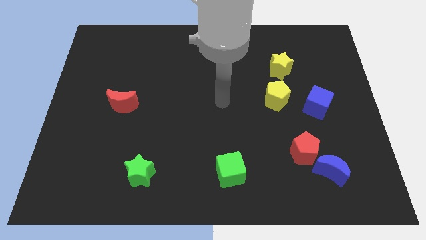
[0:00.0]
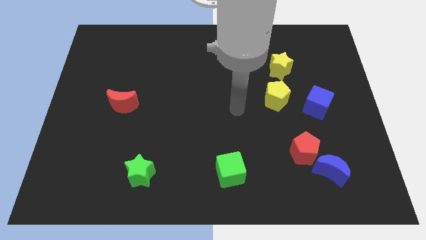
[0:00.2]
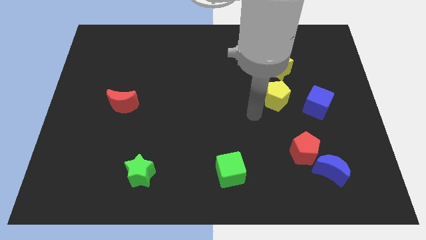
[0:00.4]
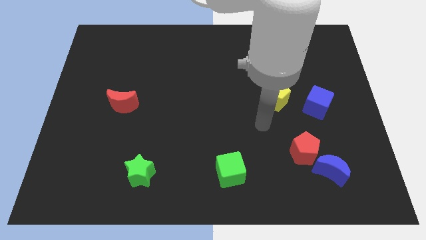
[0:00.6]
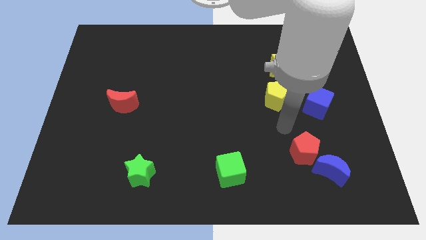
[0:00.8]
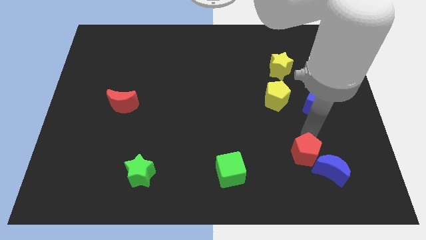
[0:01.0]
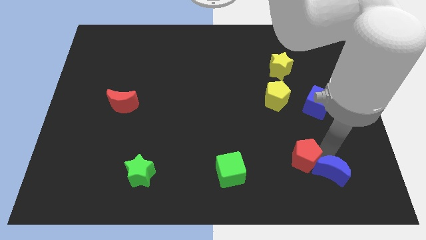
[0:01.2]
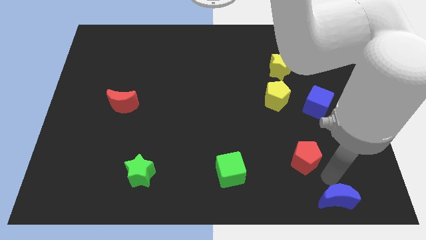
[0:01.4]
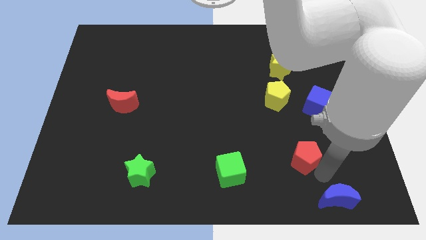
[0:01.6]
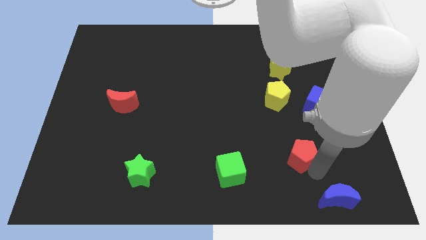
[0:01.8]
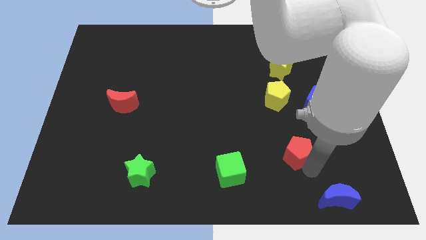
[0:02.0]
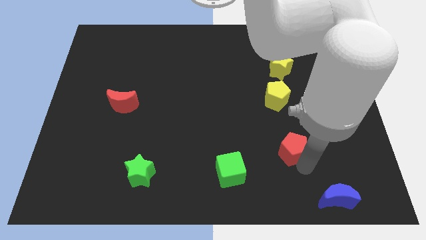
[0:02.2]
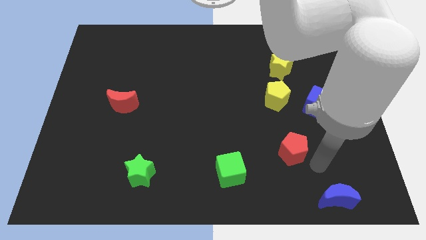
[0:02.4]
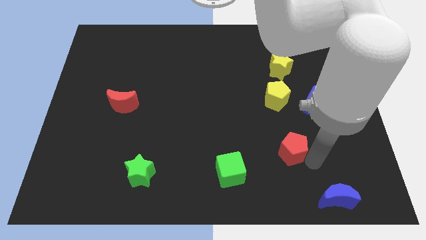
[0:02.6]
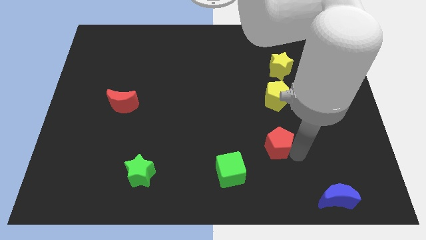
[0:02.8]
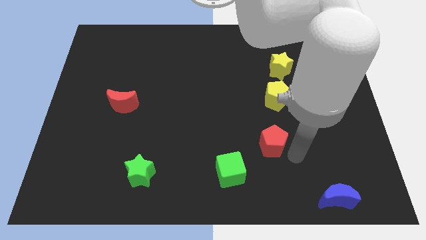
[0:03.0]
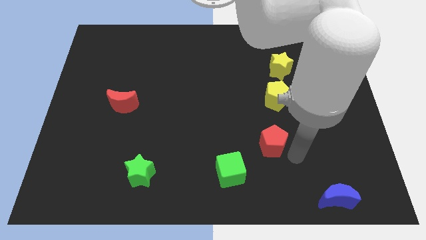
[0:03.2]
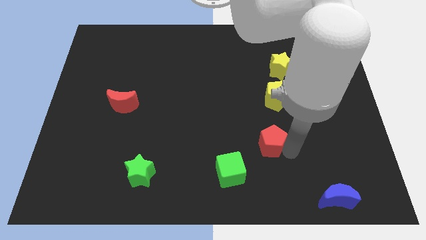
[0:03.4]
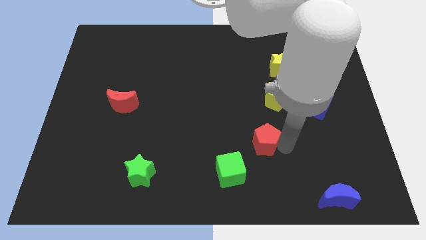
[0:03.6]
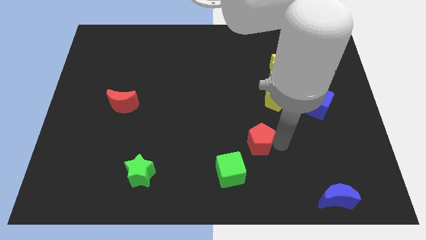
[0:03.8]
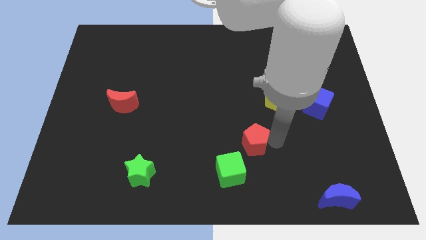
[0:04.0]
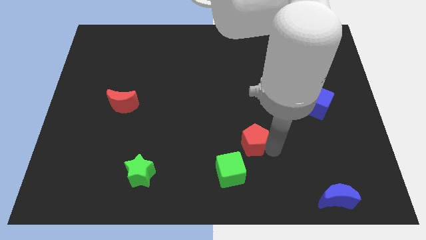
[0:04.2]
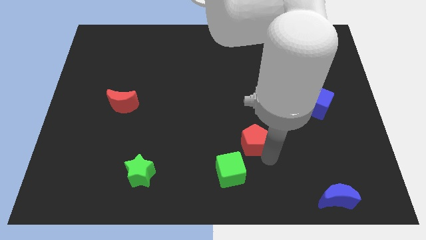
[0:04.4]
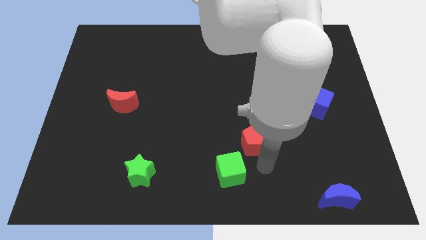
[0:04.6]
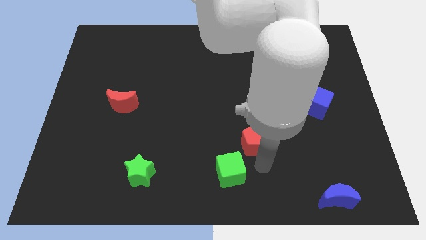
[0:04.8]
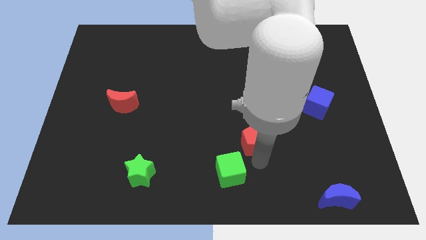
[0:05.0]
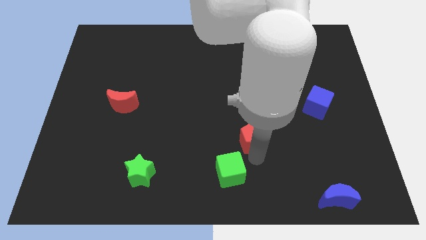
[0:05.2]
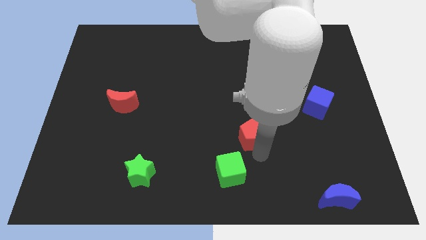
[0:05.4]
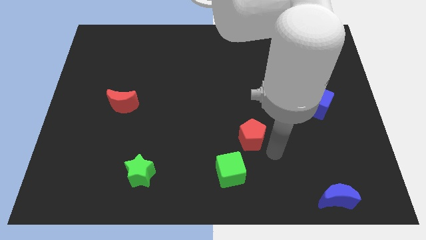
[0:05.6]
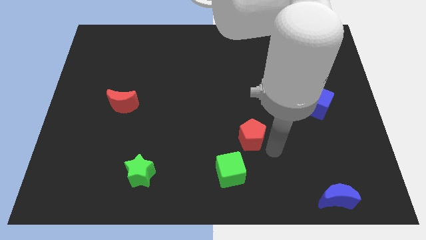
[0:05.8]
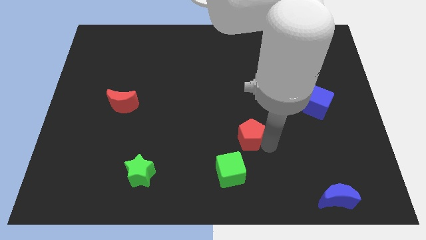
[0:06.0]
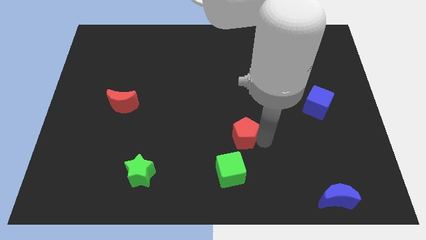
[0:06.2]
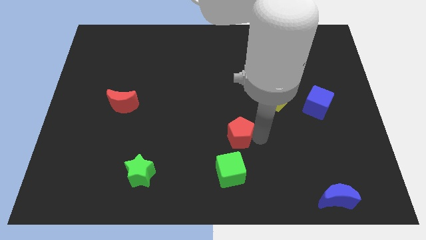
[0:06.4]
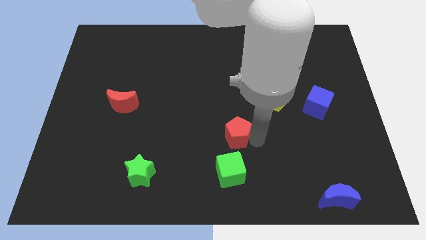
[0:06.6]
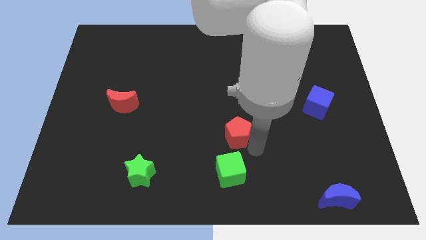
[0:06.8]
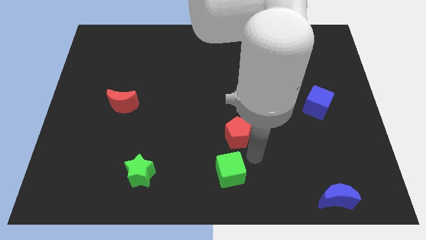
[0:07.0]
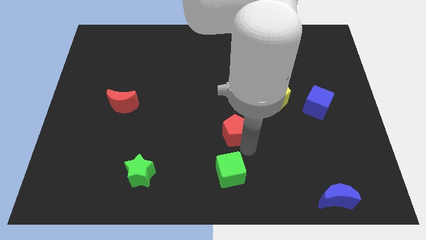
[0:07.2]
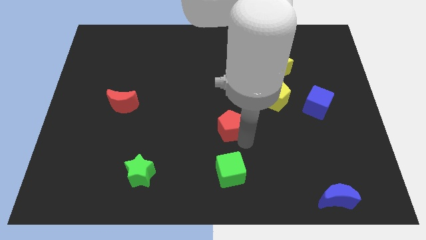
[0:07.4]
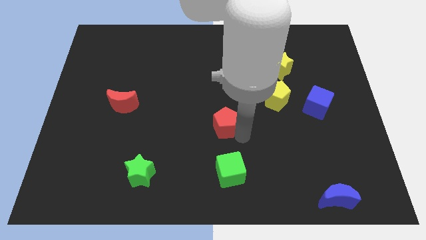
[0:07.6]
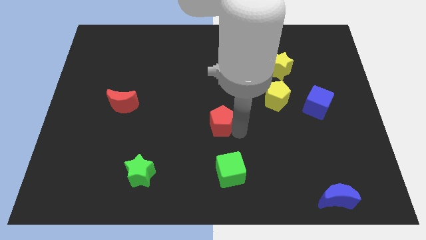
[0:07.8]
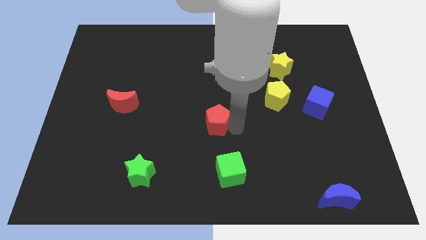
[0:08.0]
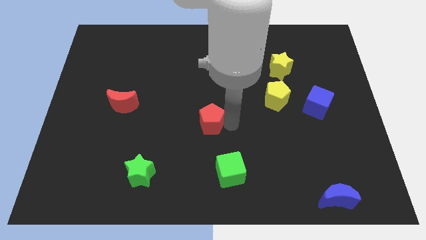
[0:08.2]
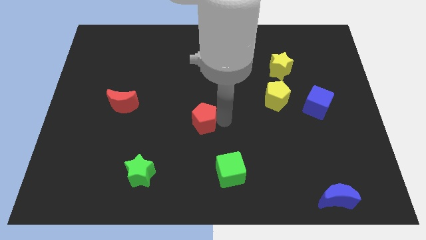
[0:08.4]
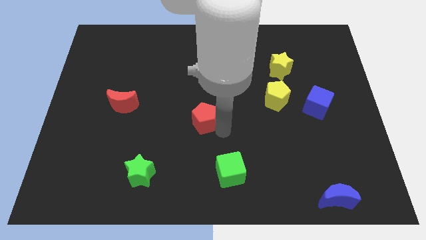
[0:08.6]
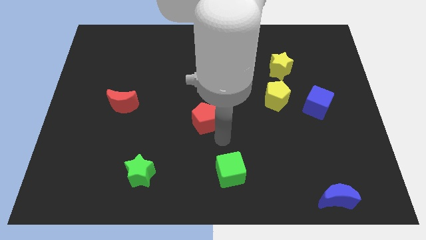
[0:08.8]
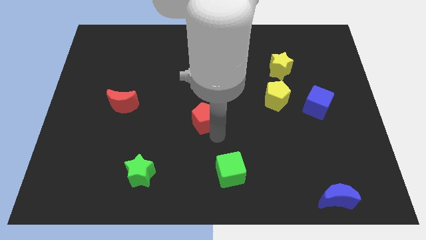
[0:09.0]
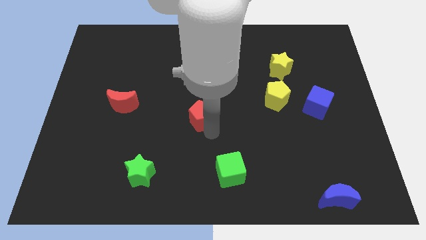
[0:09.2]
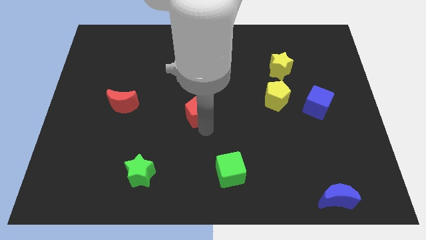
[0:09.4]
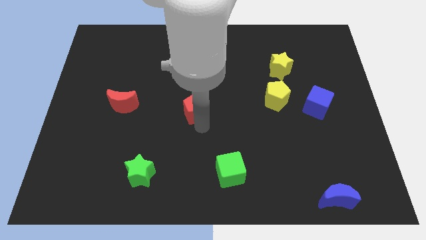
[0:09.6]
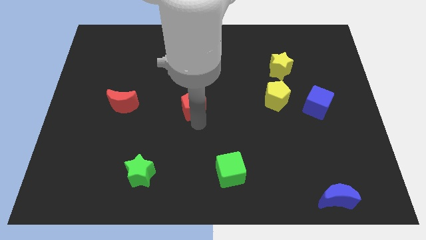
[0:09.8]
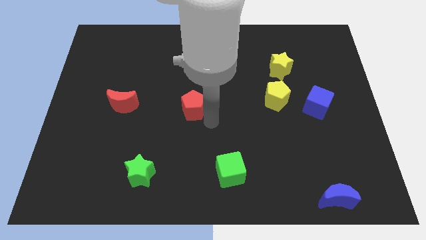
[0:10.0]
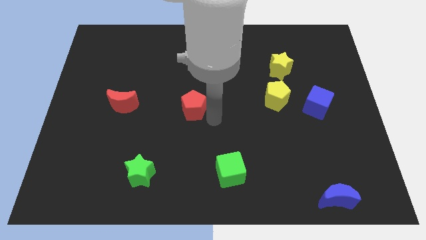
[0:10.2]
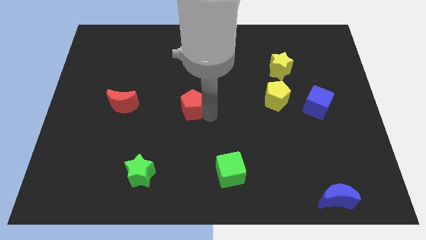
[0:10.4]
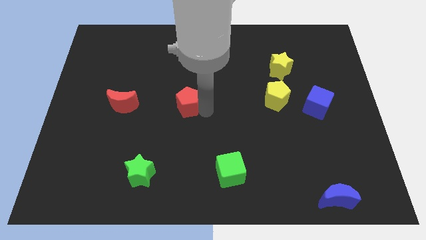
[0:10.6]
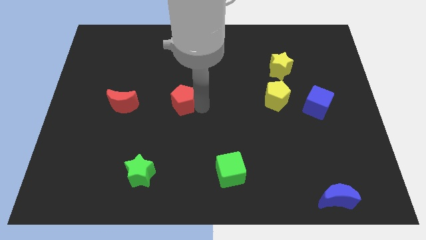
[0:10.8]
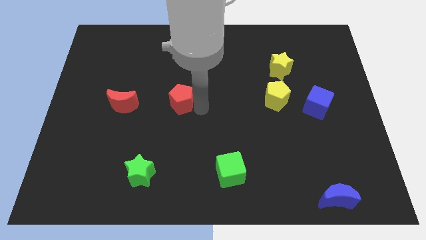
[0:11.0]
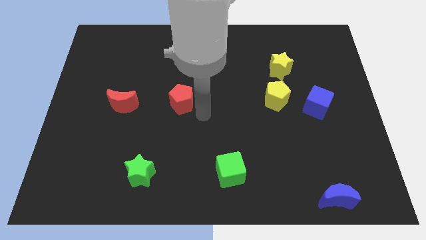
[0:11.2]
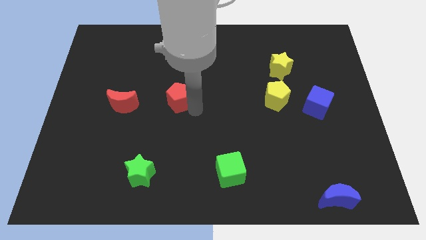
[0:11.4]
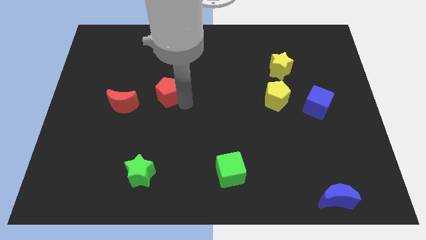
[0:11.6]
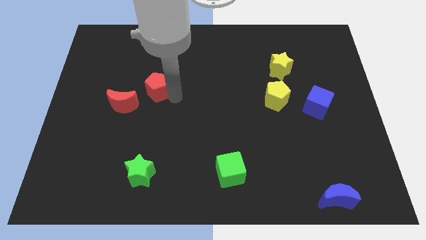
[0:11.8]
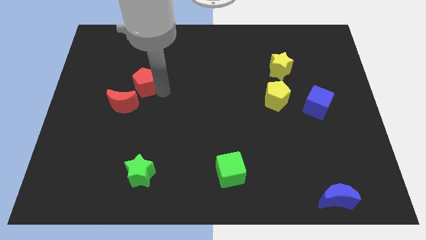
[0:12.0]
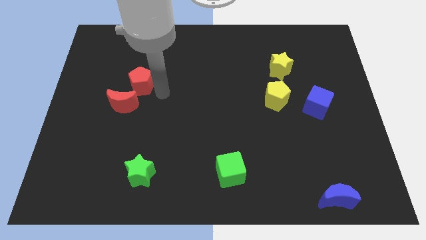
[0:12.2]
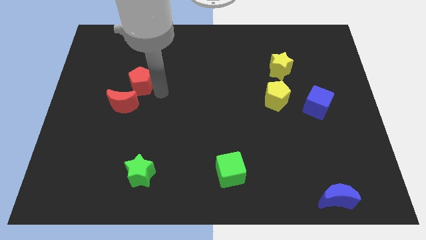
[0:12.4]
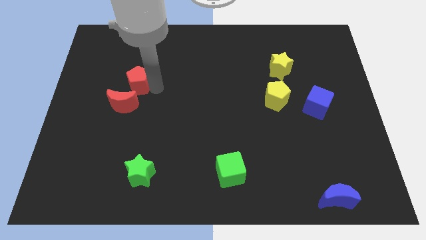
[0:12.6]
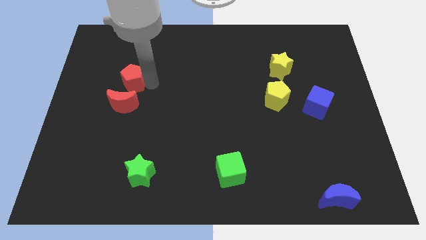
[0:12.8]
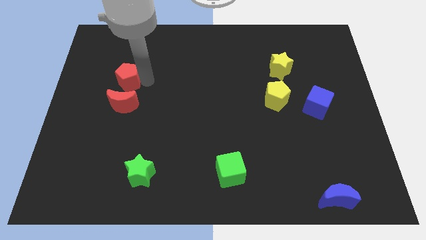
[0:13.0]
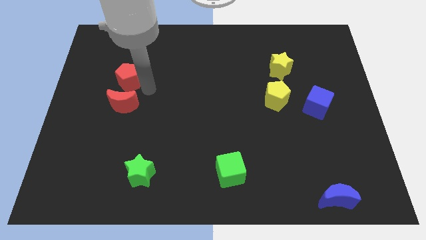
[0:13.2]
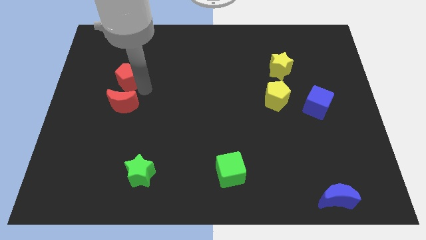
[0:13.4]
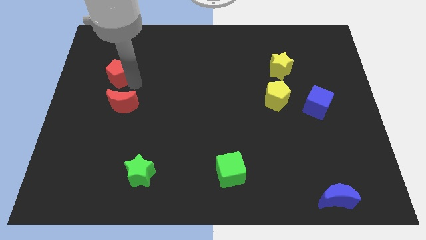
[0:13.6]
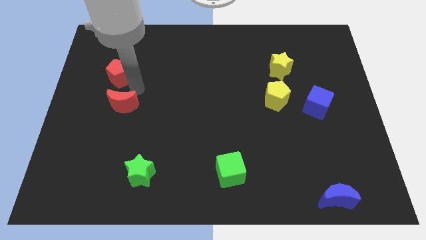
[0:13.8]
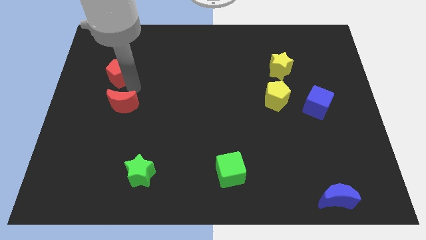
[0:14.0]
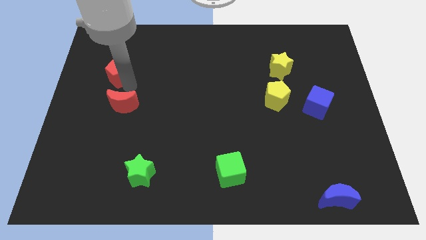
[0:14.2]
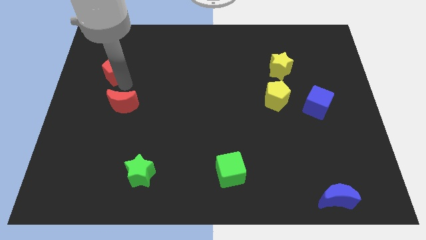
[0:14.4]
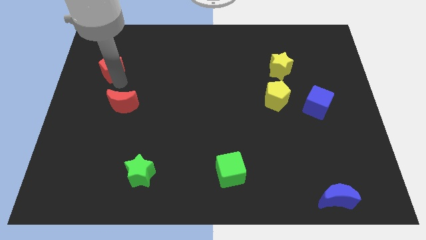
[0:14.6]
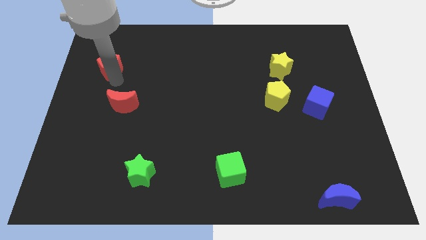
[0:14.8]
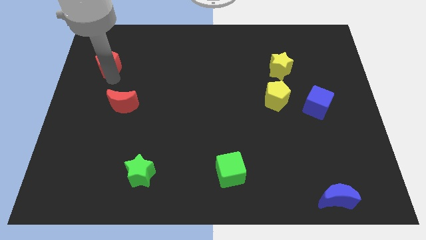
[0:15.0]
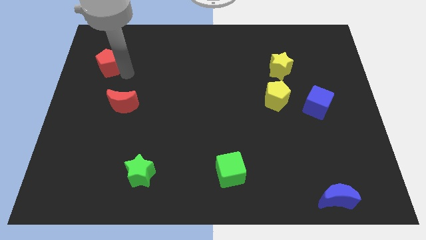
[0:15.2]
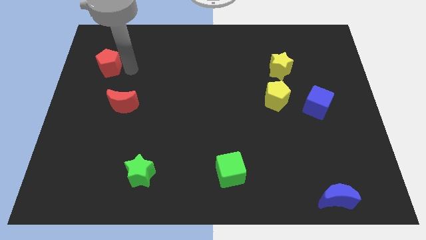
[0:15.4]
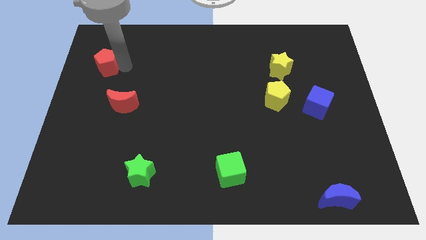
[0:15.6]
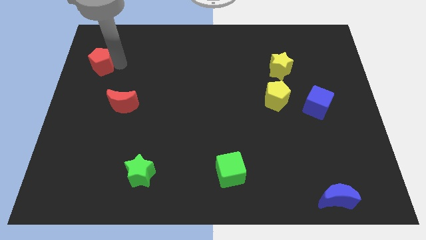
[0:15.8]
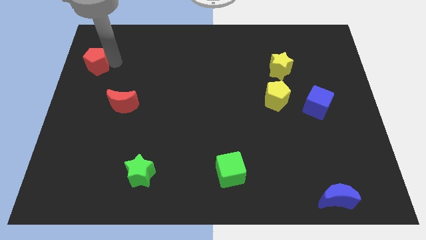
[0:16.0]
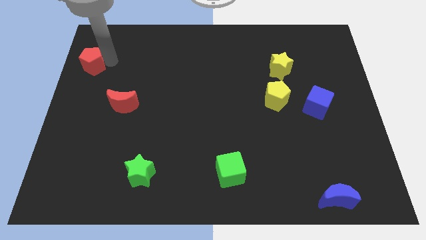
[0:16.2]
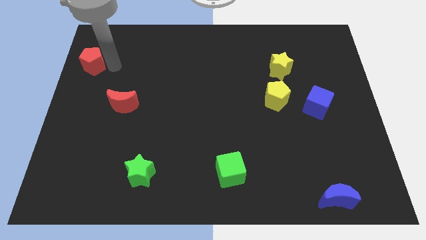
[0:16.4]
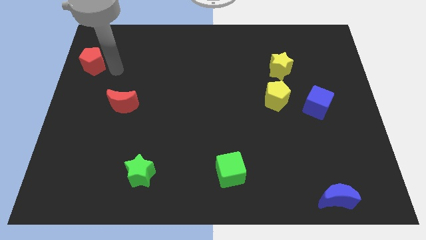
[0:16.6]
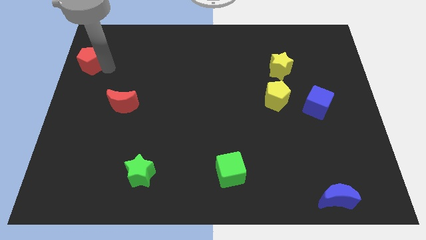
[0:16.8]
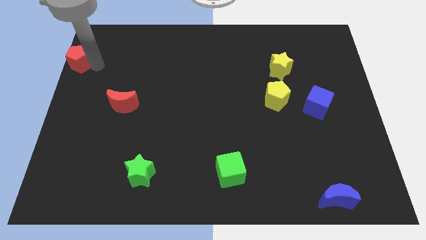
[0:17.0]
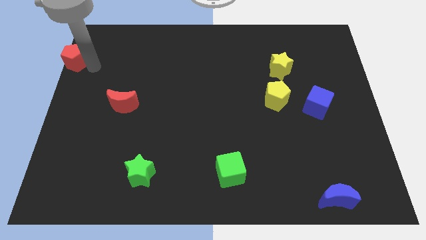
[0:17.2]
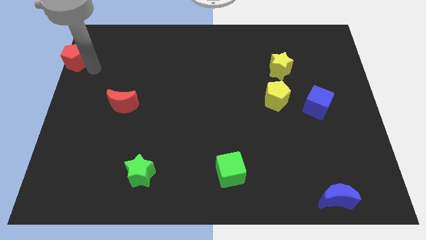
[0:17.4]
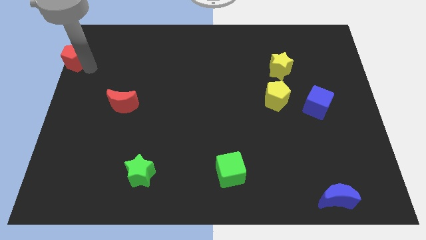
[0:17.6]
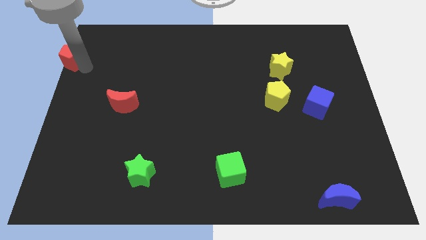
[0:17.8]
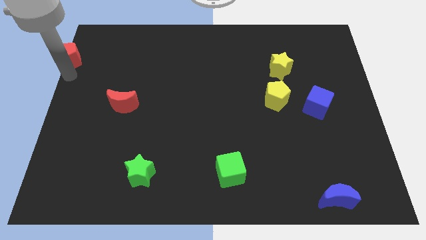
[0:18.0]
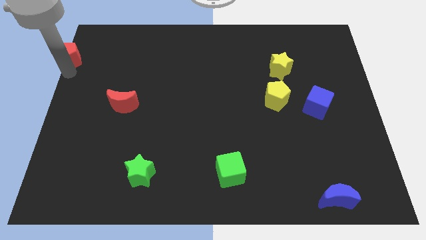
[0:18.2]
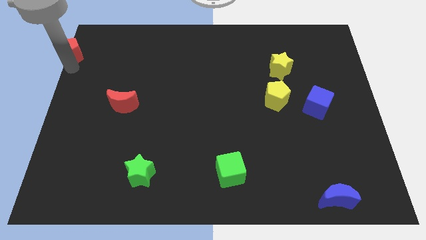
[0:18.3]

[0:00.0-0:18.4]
push the red pentagon to the top left
